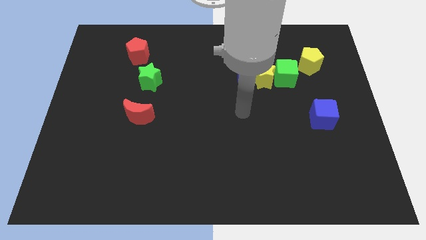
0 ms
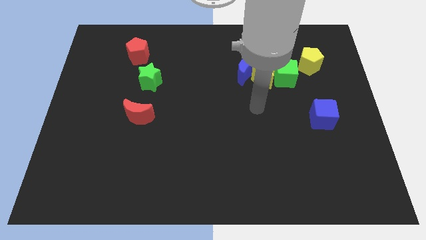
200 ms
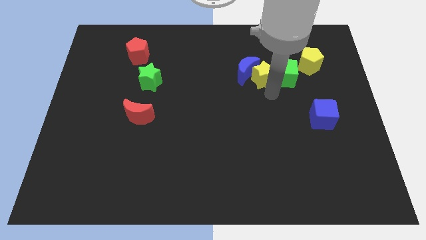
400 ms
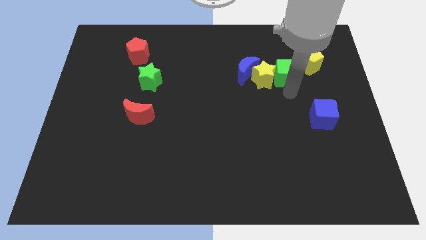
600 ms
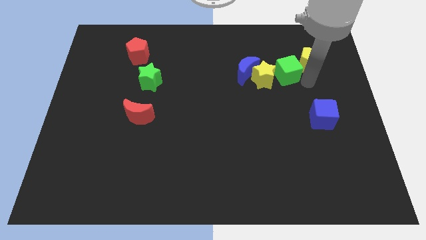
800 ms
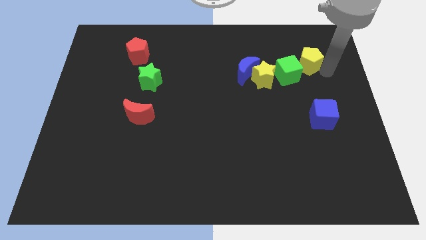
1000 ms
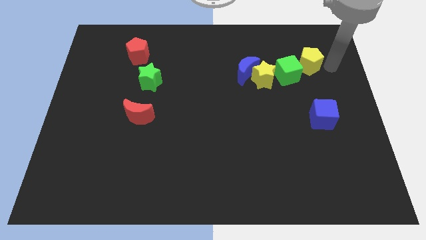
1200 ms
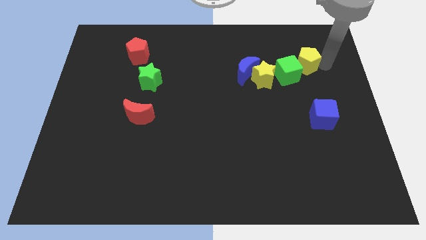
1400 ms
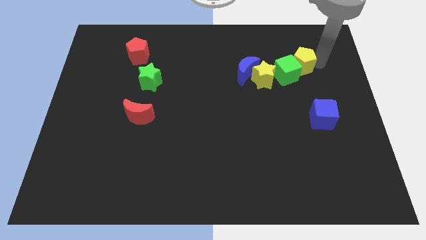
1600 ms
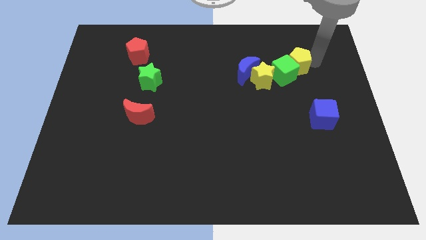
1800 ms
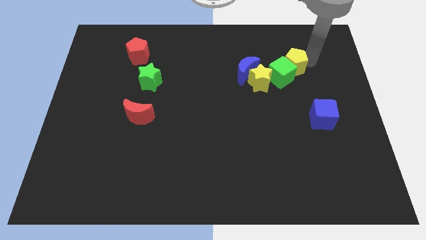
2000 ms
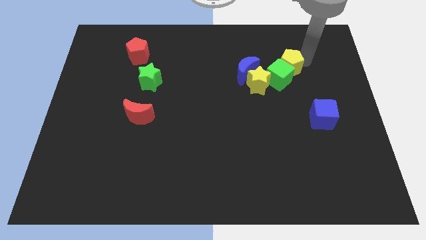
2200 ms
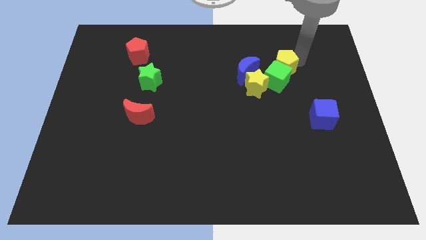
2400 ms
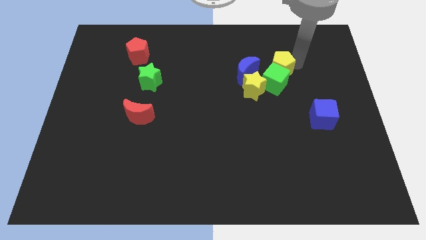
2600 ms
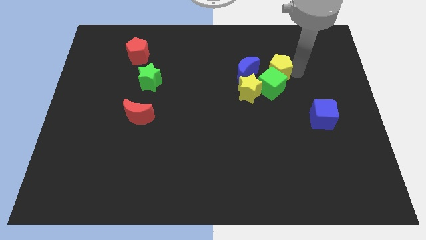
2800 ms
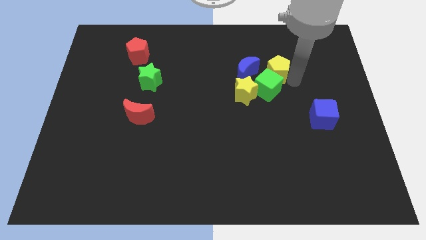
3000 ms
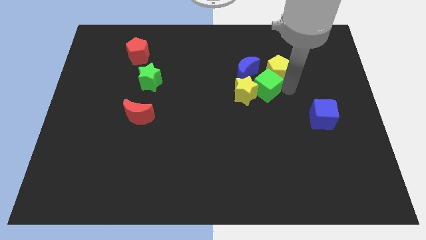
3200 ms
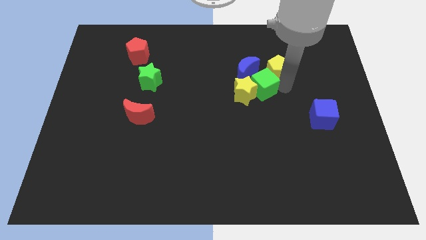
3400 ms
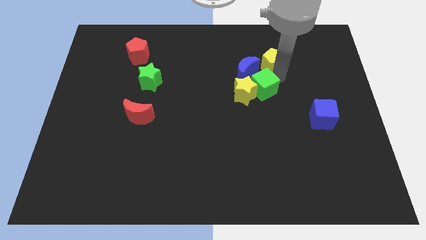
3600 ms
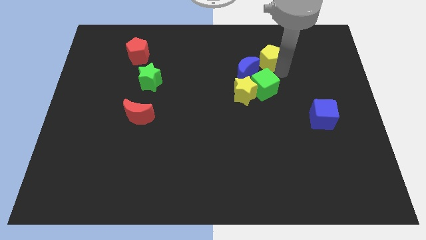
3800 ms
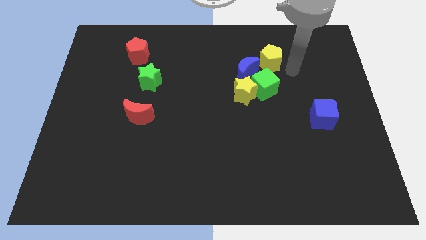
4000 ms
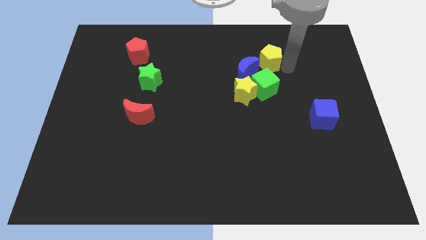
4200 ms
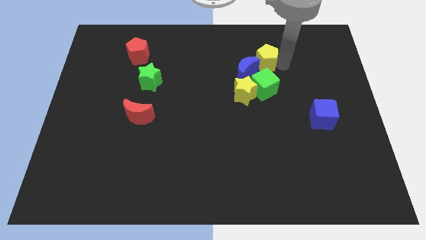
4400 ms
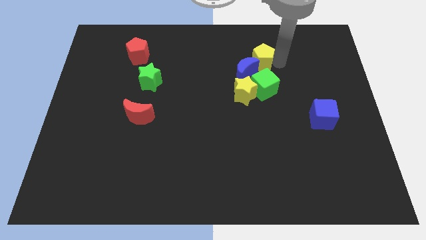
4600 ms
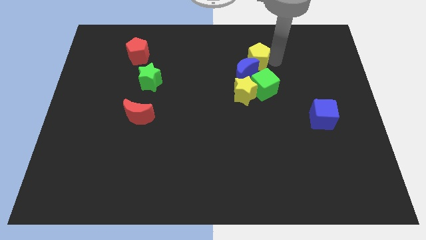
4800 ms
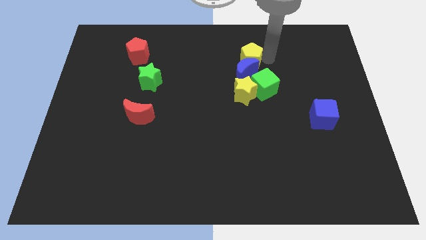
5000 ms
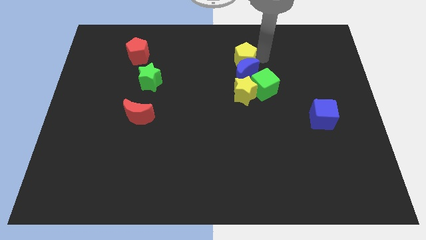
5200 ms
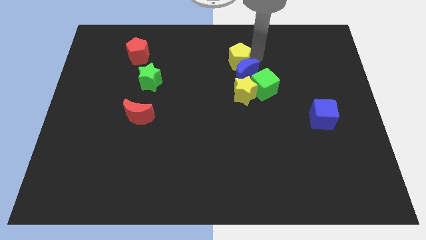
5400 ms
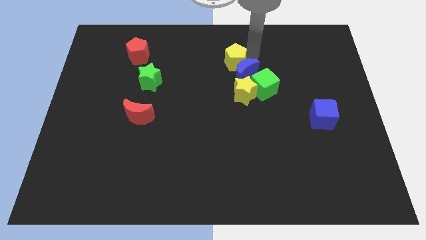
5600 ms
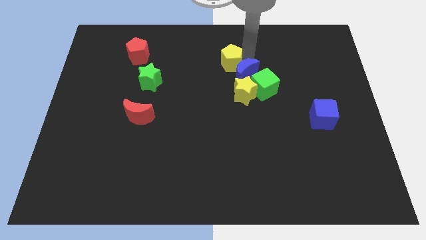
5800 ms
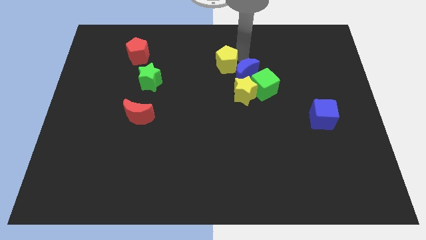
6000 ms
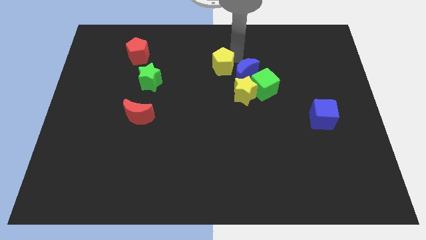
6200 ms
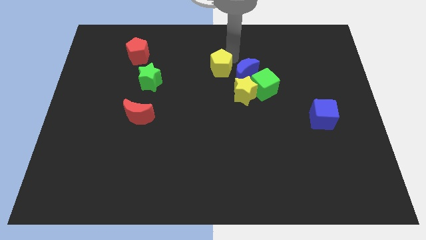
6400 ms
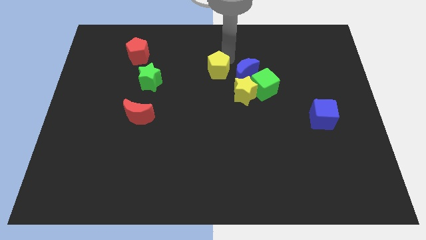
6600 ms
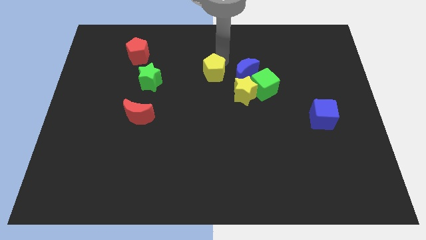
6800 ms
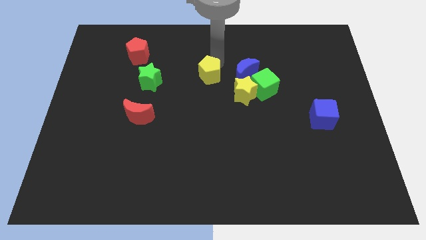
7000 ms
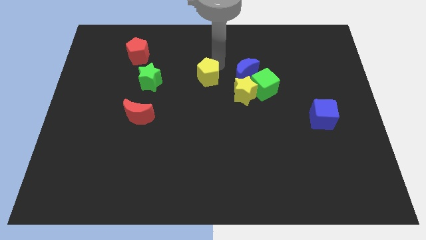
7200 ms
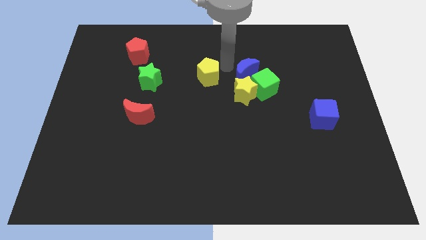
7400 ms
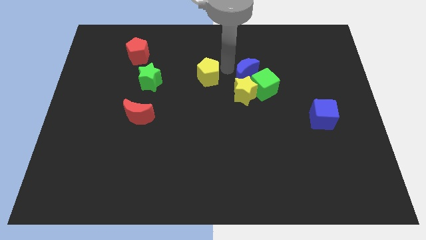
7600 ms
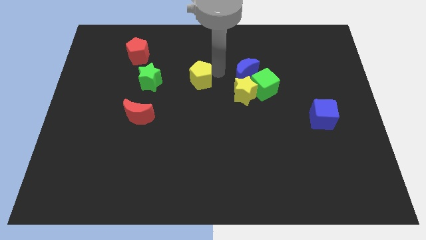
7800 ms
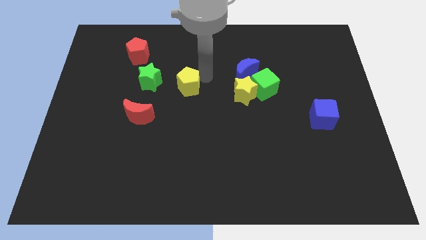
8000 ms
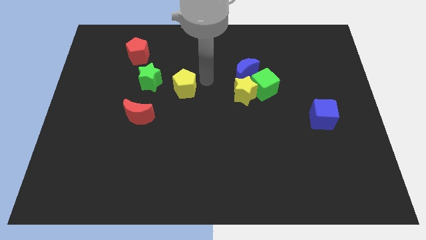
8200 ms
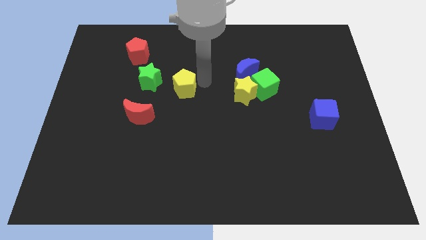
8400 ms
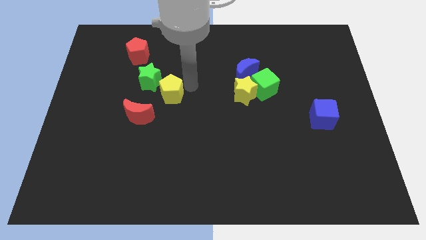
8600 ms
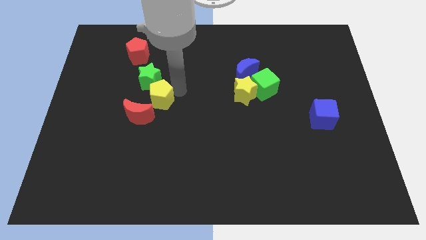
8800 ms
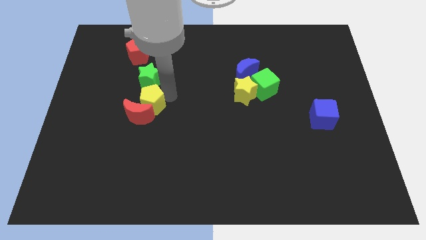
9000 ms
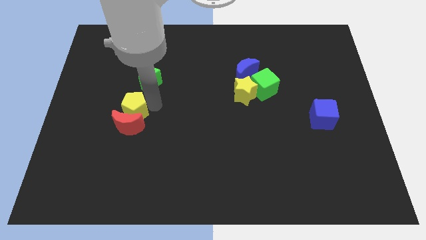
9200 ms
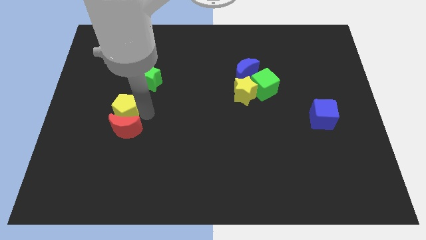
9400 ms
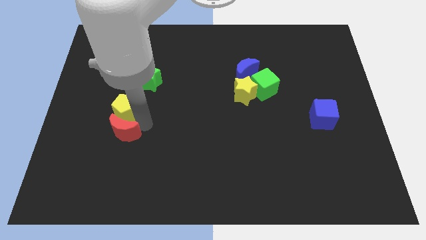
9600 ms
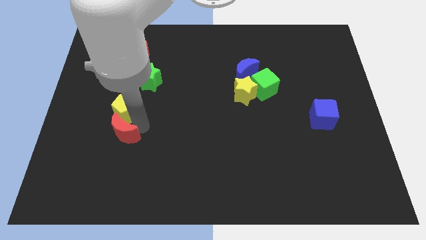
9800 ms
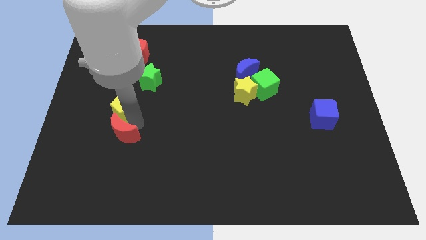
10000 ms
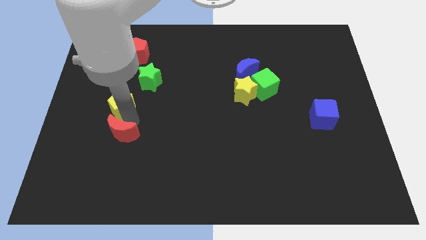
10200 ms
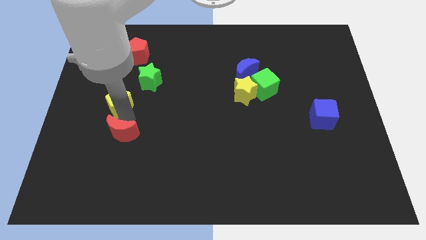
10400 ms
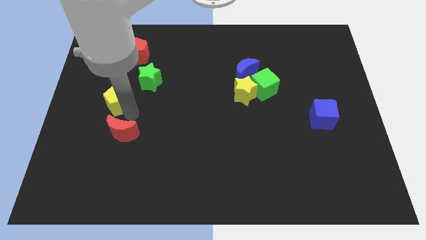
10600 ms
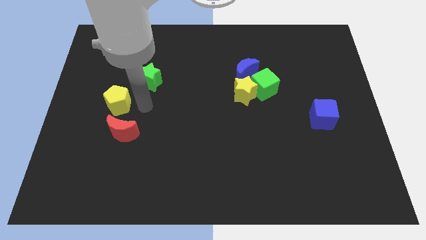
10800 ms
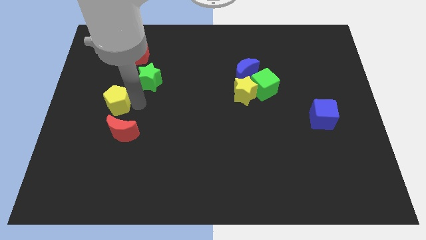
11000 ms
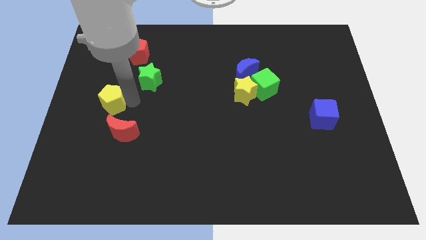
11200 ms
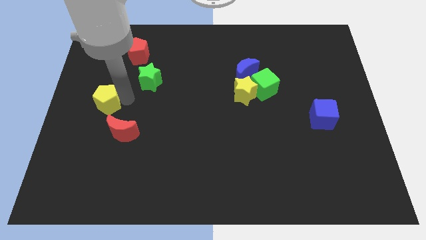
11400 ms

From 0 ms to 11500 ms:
push the yellow pentagon to the left side of the board
